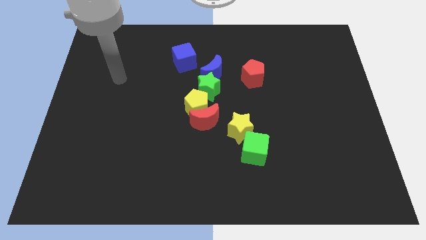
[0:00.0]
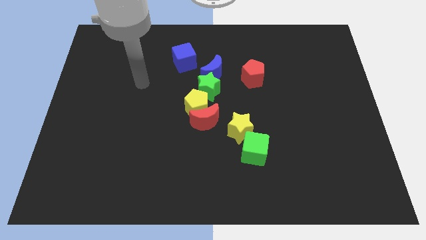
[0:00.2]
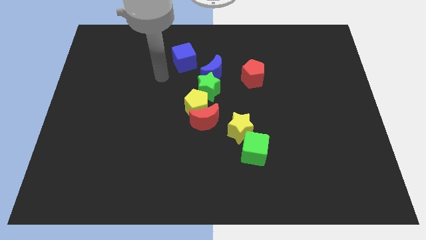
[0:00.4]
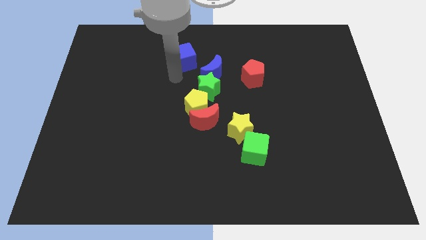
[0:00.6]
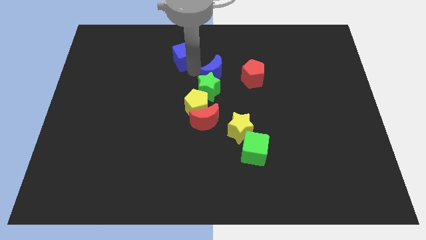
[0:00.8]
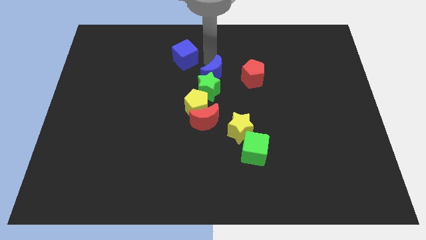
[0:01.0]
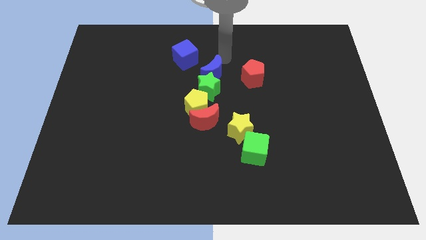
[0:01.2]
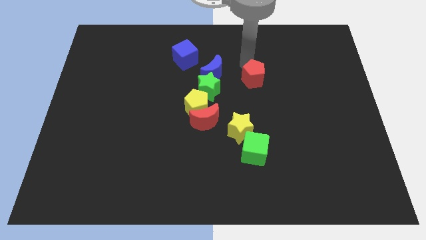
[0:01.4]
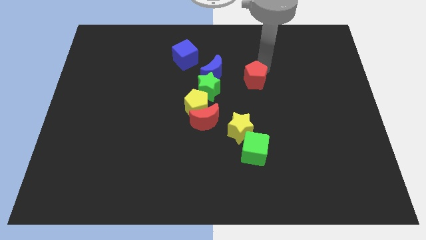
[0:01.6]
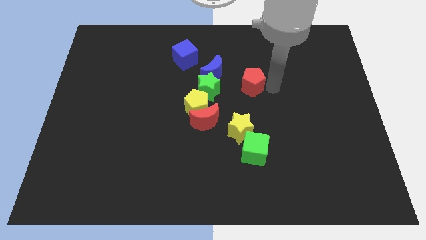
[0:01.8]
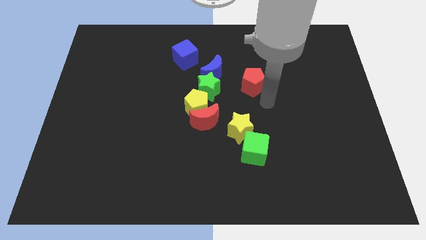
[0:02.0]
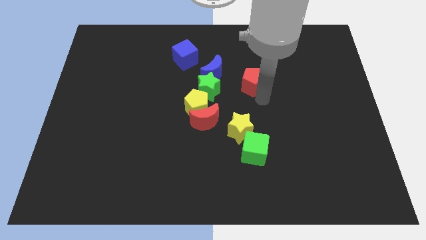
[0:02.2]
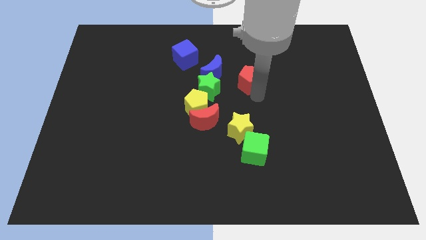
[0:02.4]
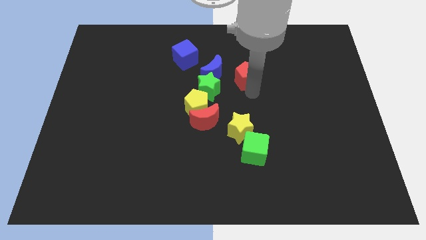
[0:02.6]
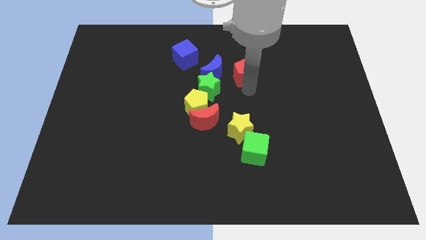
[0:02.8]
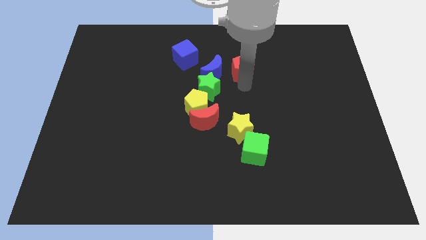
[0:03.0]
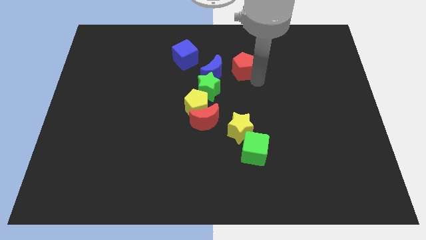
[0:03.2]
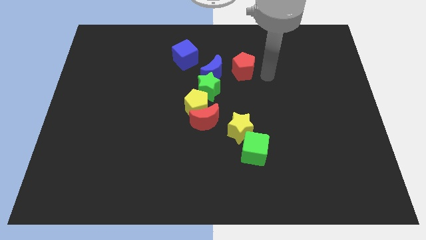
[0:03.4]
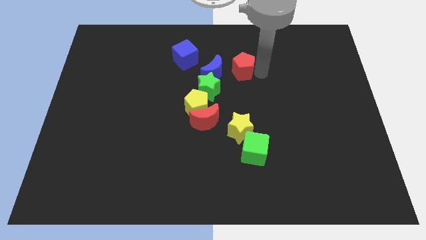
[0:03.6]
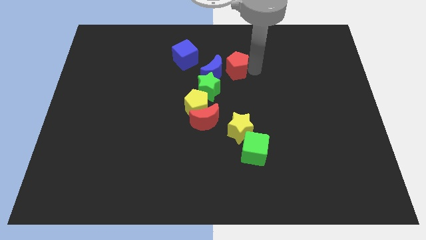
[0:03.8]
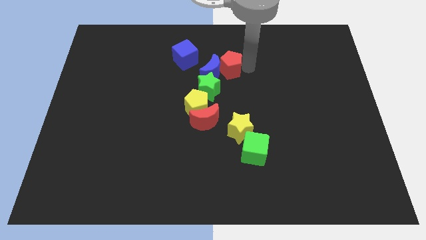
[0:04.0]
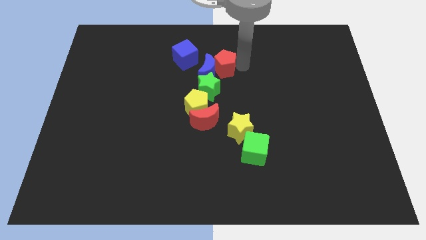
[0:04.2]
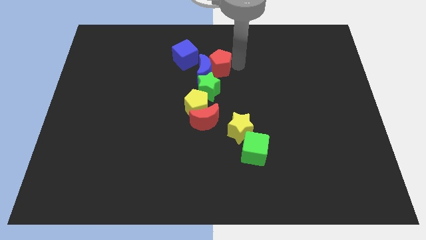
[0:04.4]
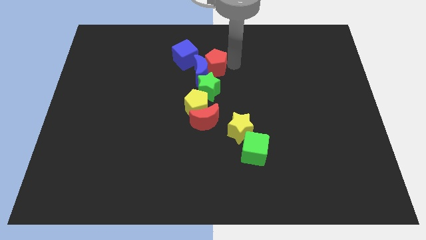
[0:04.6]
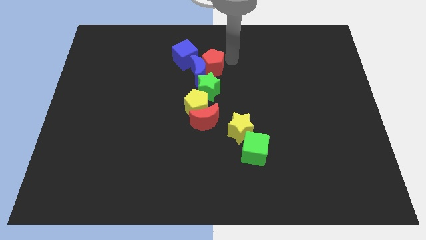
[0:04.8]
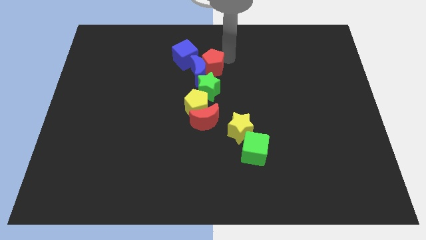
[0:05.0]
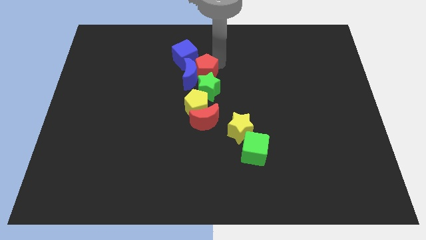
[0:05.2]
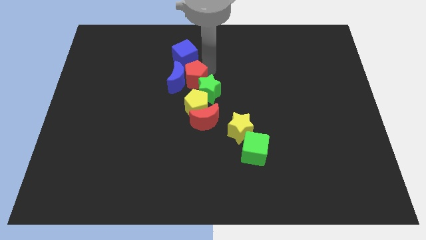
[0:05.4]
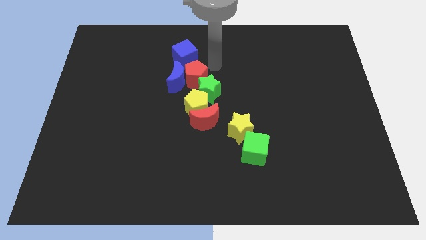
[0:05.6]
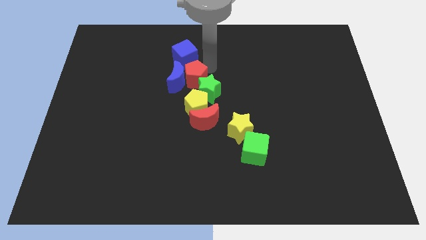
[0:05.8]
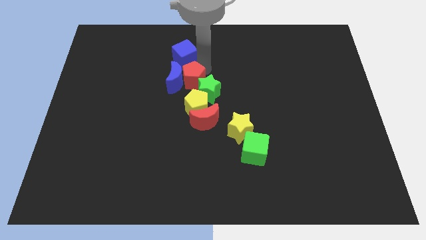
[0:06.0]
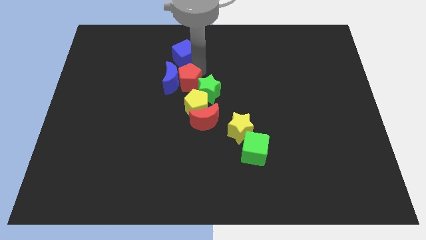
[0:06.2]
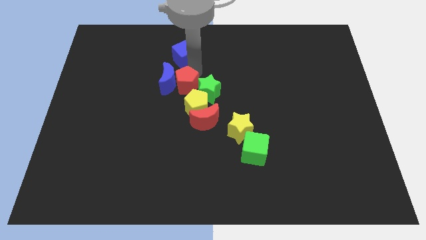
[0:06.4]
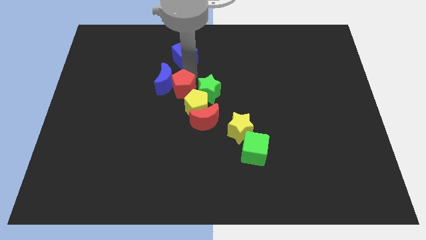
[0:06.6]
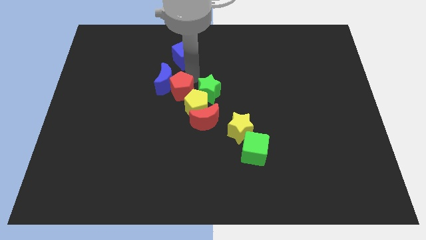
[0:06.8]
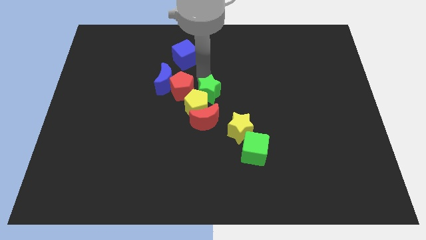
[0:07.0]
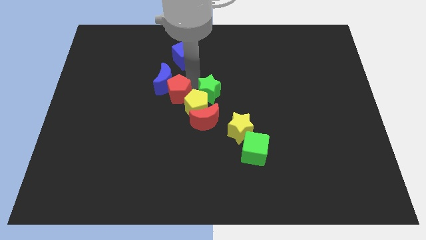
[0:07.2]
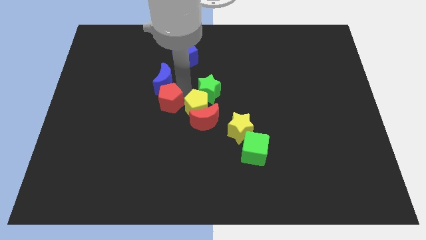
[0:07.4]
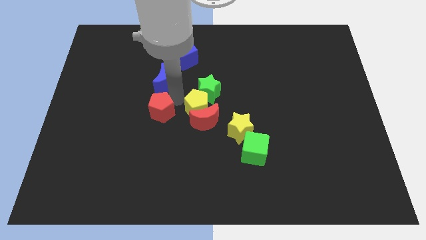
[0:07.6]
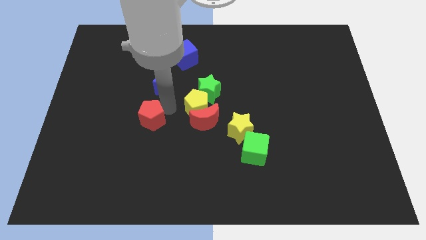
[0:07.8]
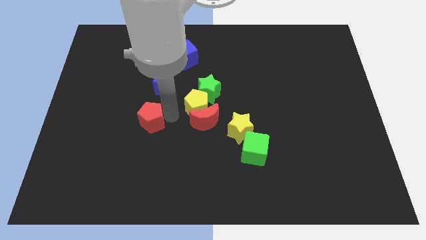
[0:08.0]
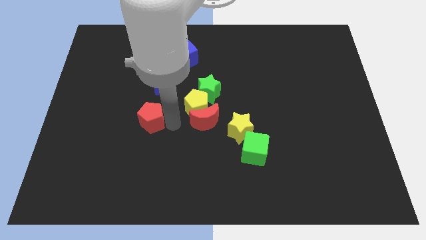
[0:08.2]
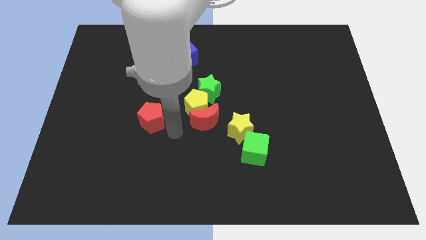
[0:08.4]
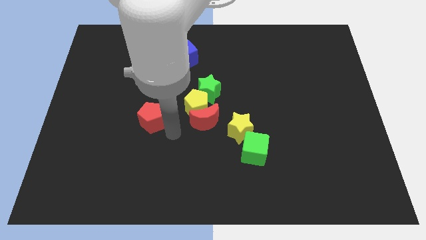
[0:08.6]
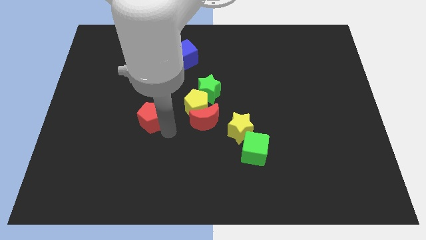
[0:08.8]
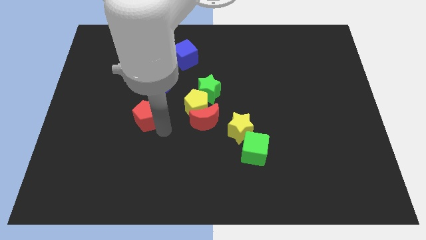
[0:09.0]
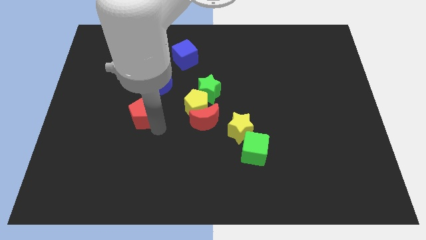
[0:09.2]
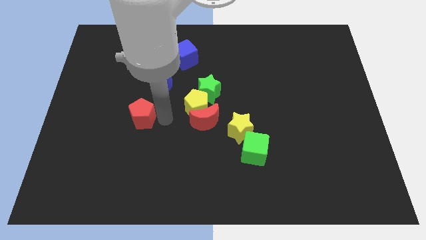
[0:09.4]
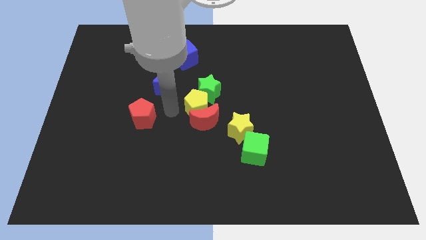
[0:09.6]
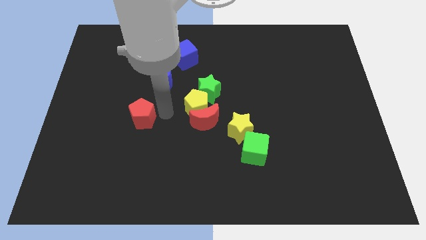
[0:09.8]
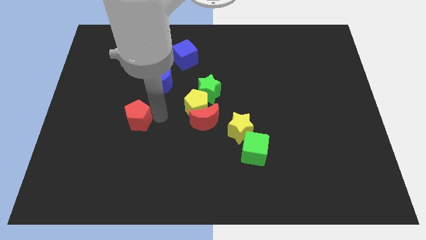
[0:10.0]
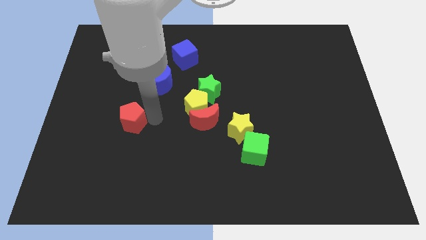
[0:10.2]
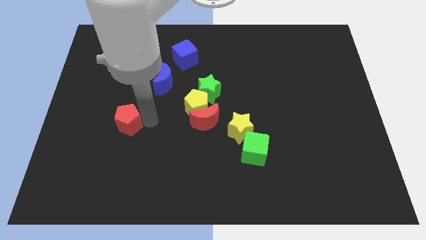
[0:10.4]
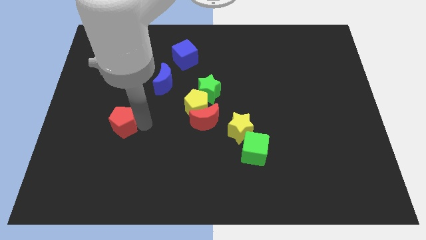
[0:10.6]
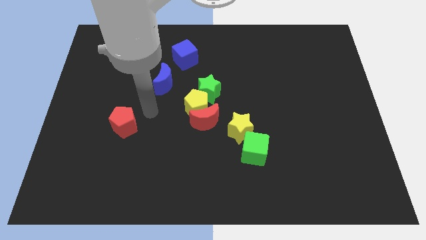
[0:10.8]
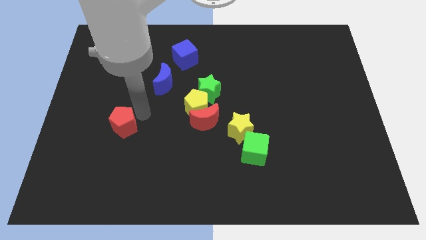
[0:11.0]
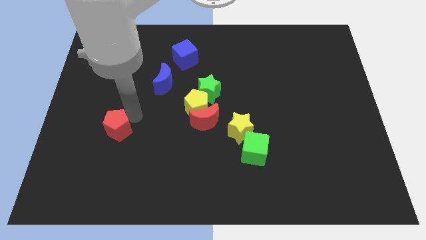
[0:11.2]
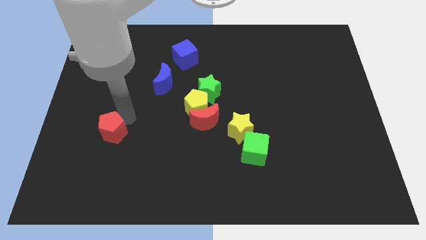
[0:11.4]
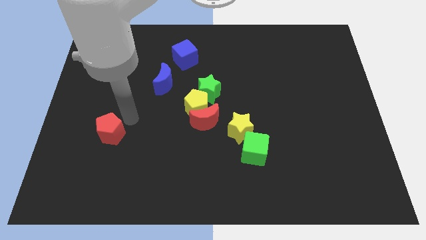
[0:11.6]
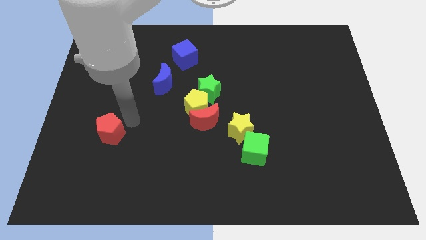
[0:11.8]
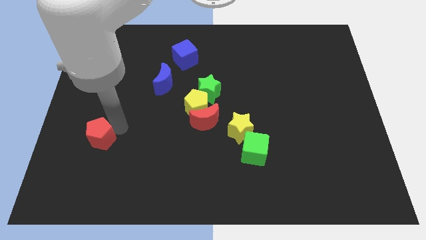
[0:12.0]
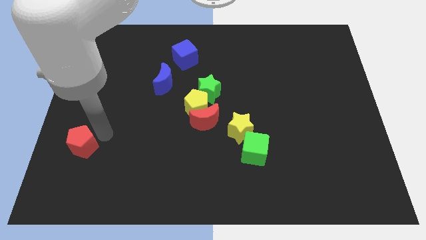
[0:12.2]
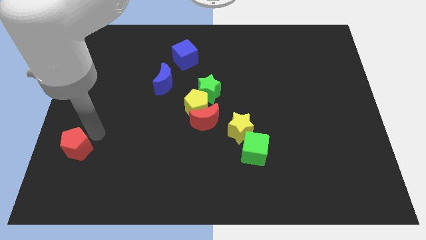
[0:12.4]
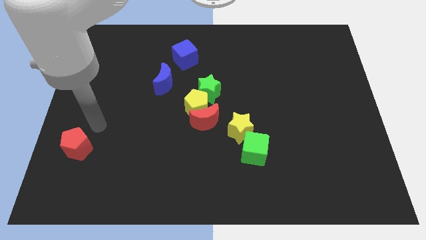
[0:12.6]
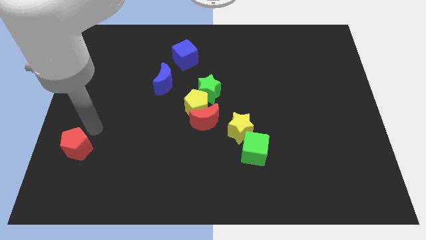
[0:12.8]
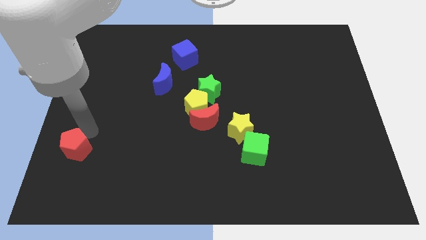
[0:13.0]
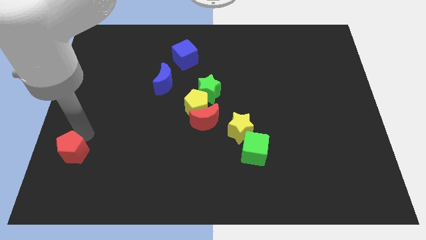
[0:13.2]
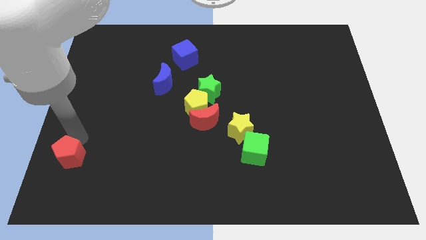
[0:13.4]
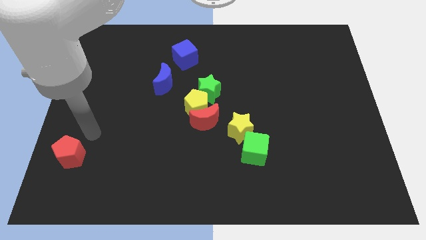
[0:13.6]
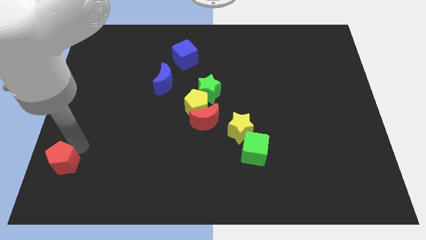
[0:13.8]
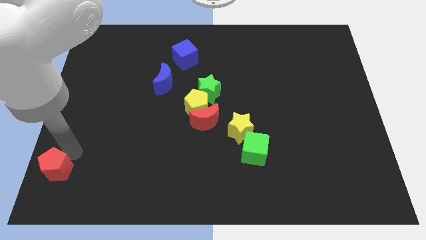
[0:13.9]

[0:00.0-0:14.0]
push the red pentagon to the lower left corner
